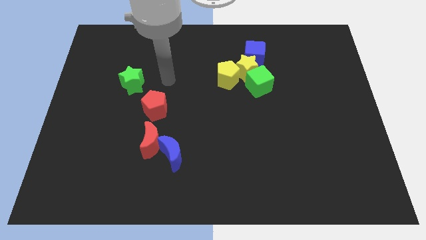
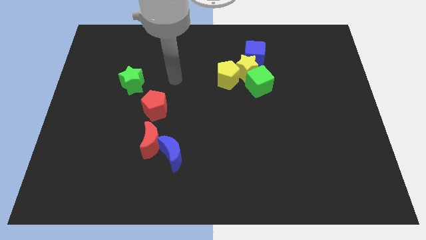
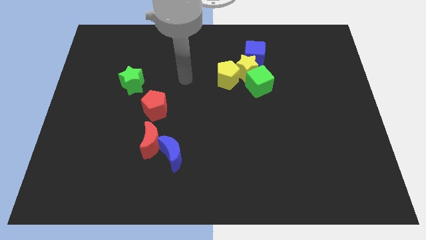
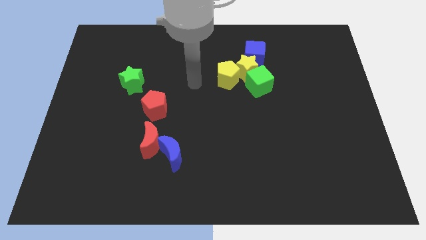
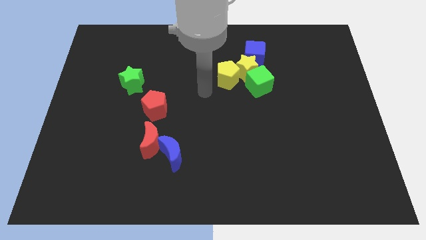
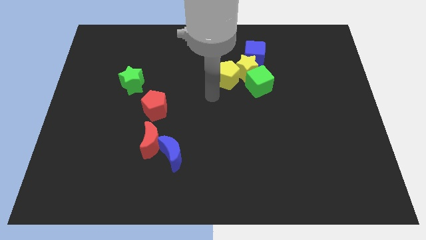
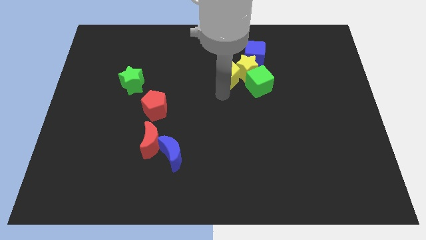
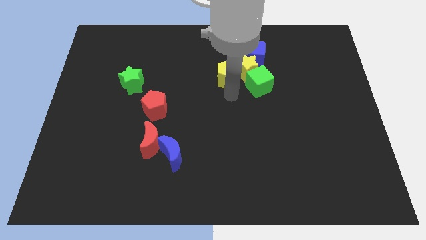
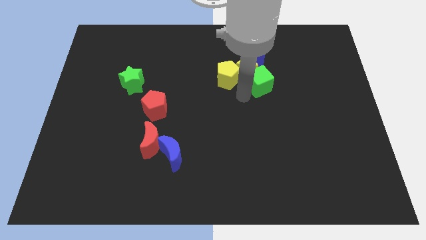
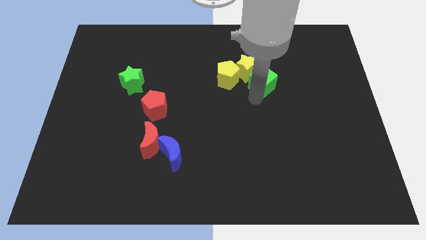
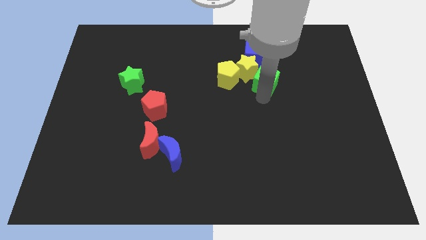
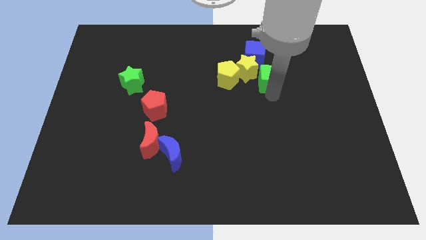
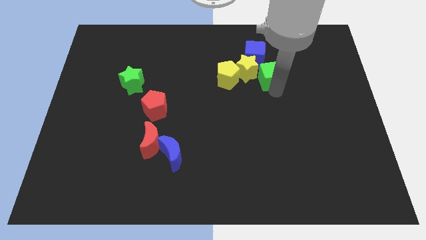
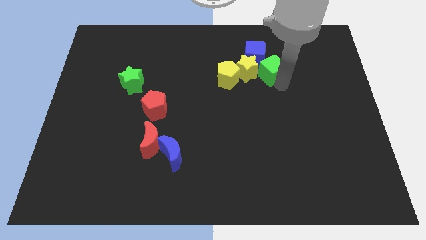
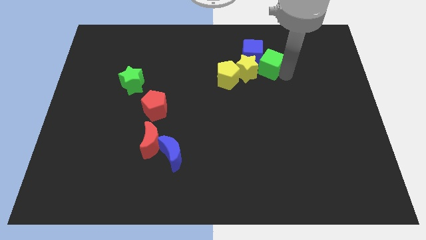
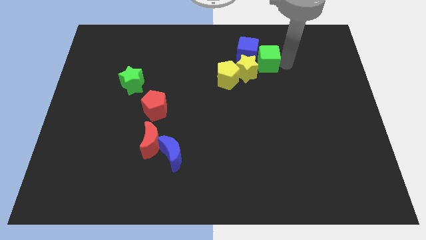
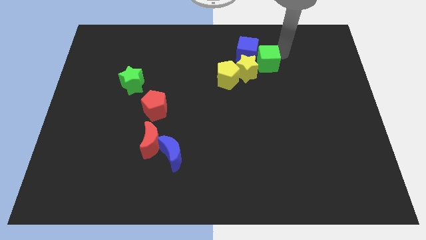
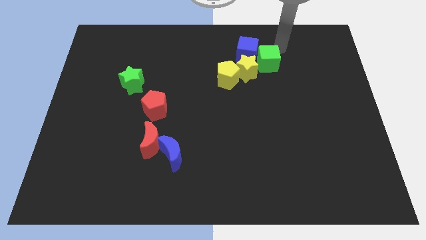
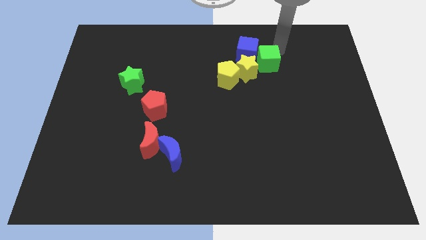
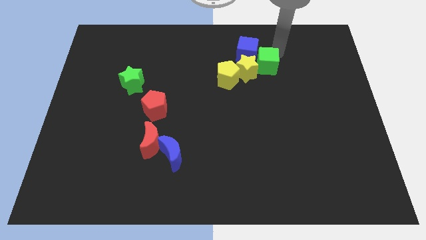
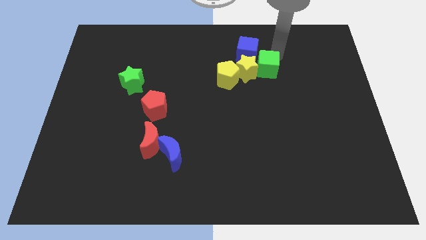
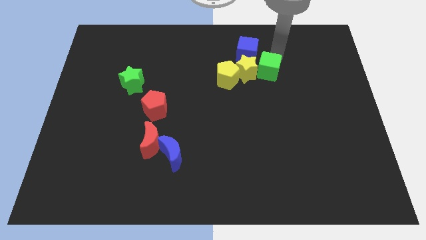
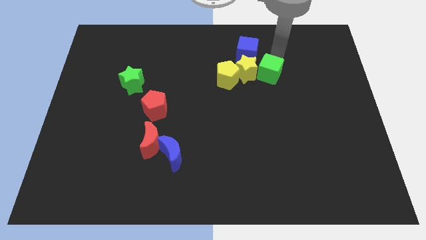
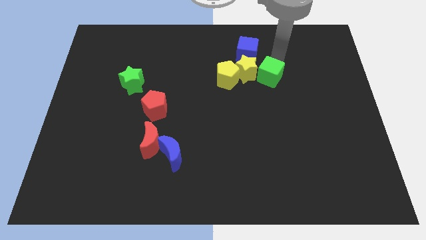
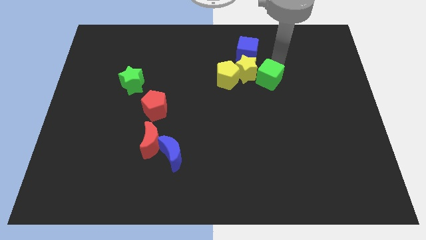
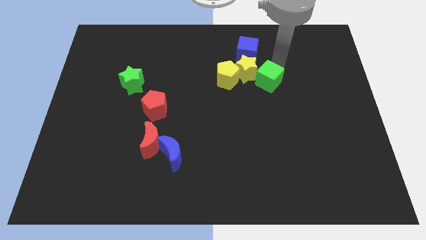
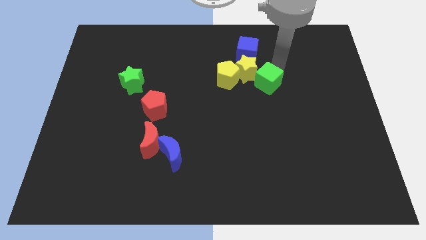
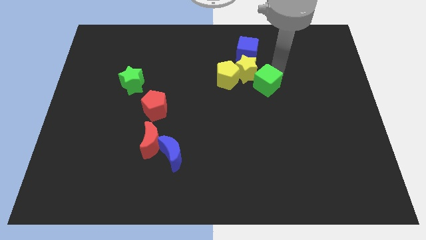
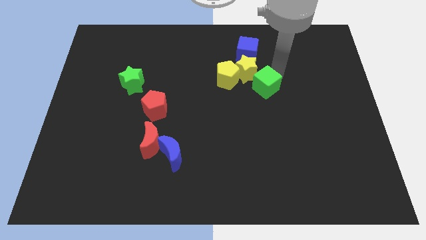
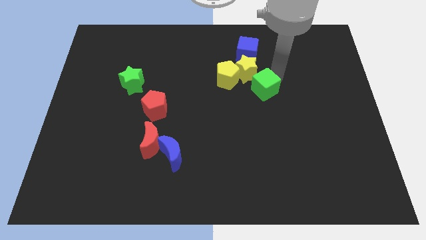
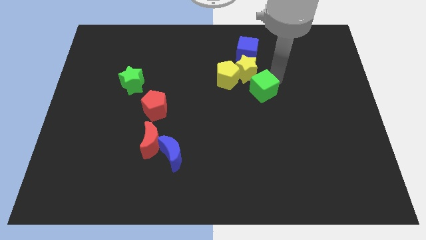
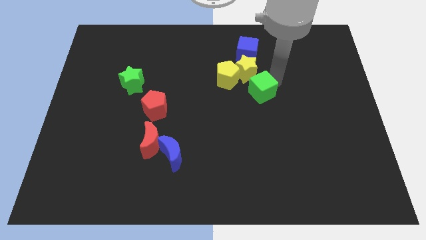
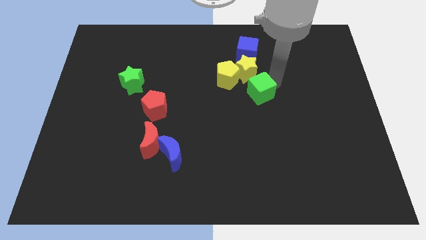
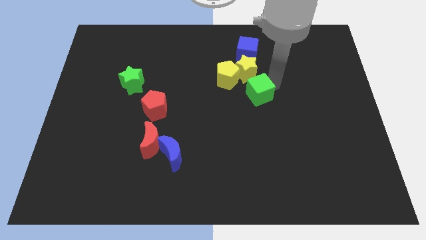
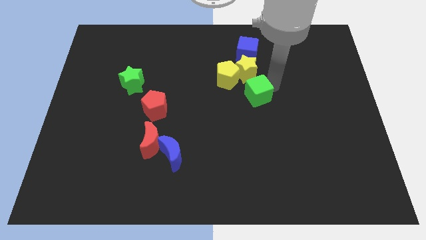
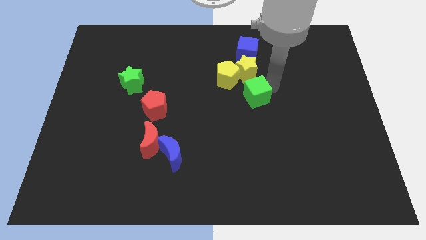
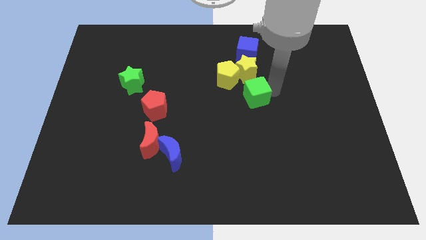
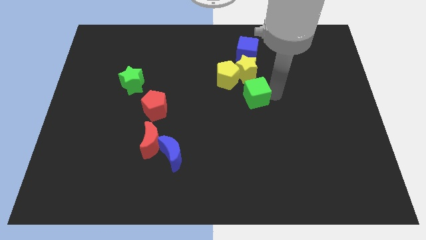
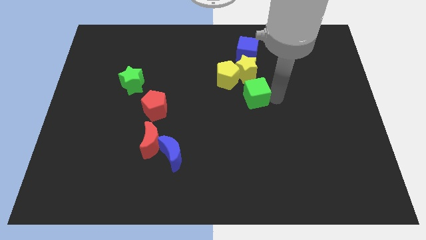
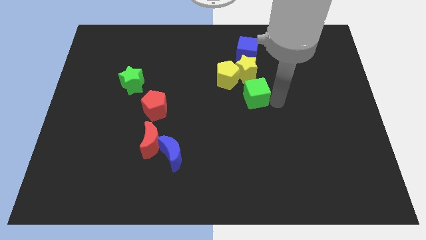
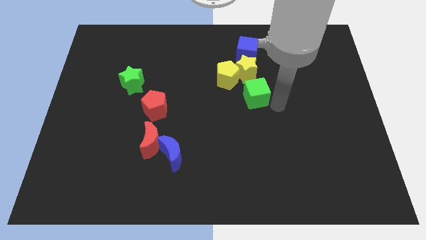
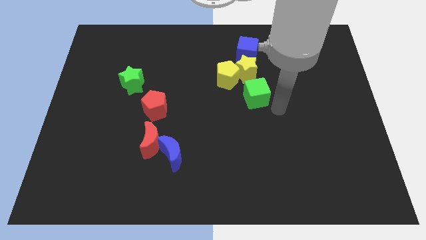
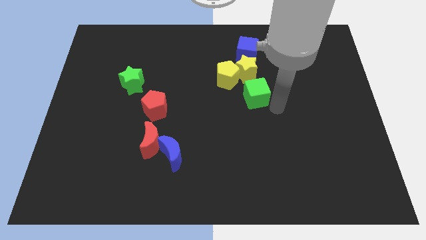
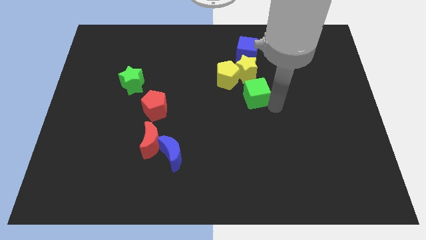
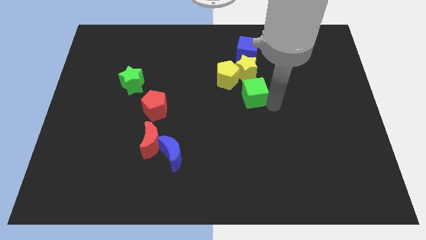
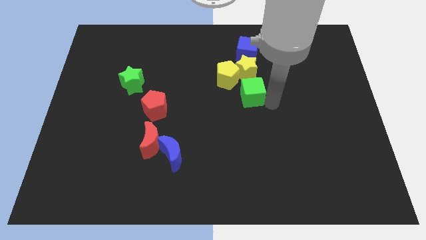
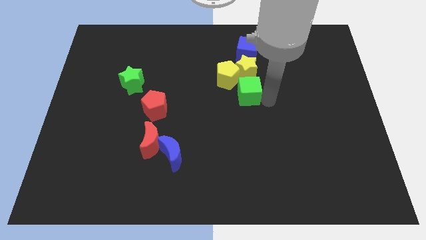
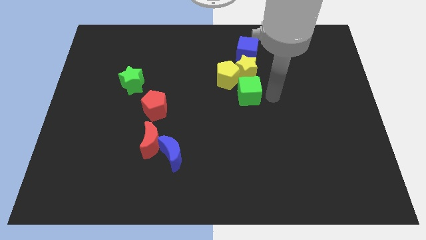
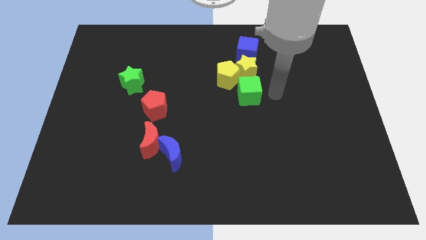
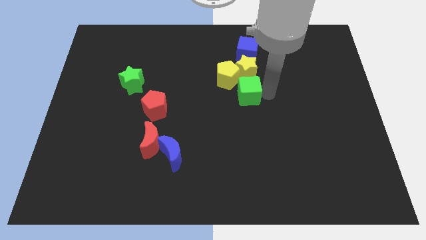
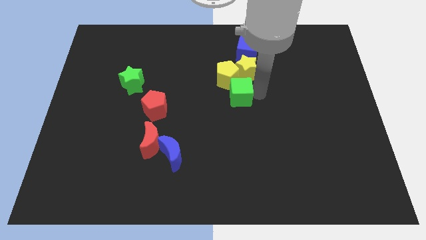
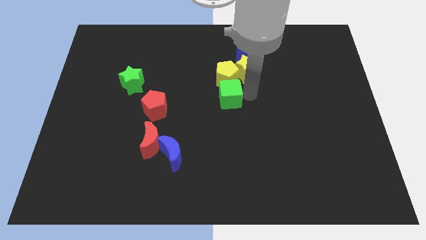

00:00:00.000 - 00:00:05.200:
put the green cube diagonally down and to the left of the yellow pentagon

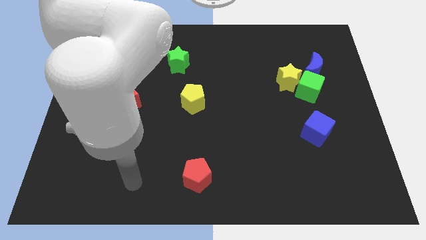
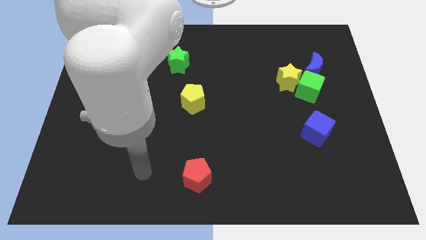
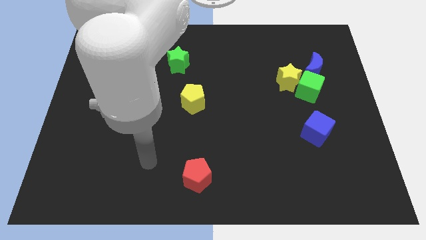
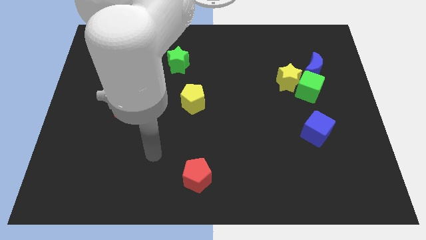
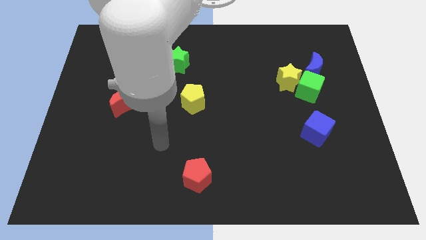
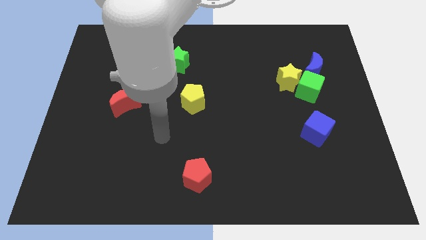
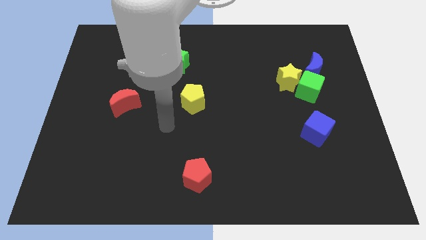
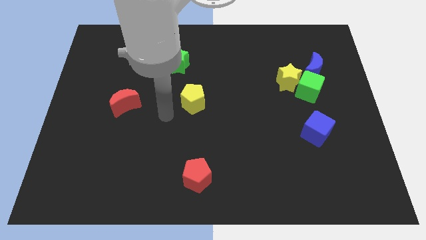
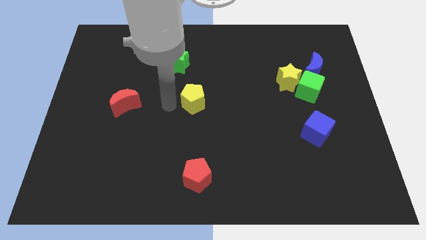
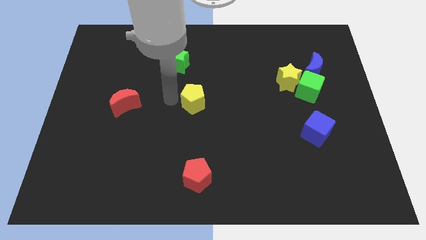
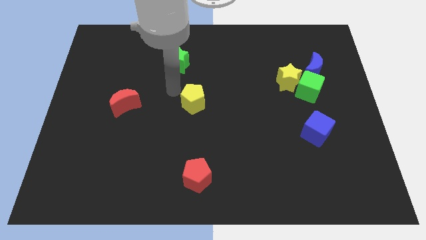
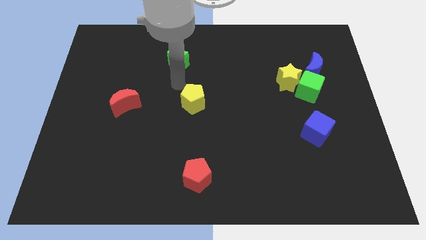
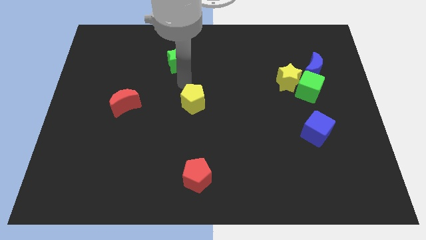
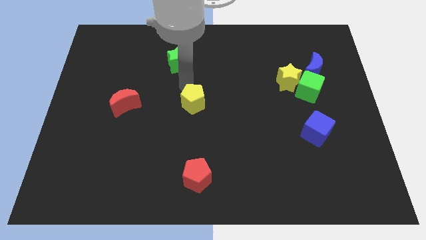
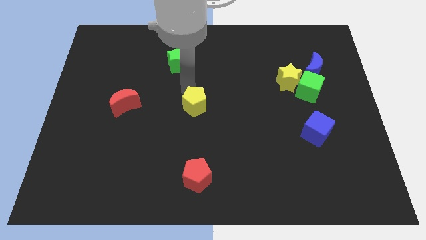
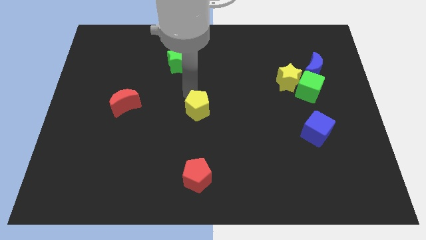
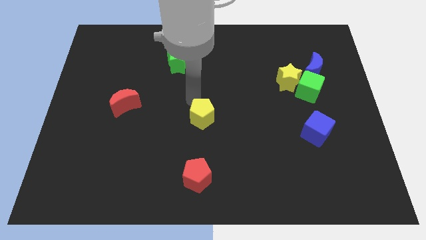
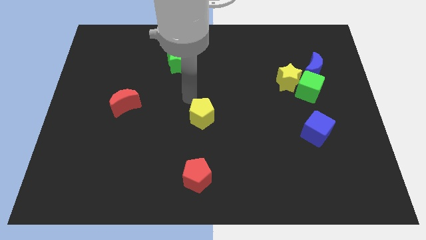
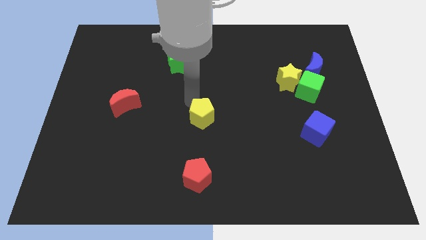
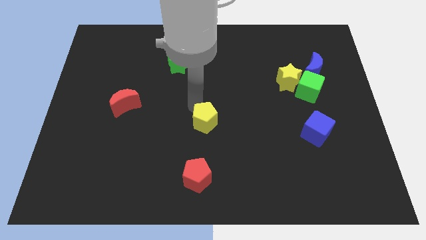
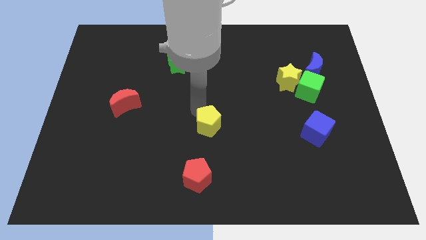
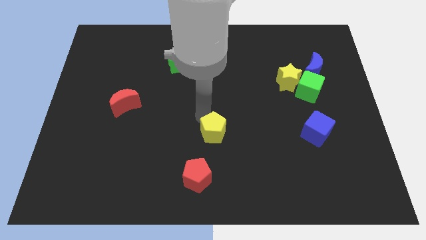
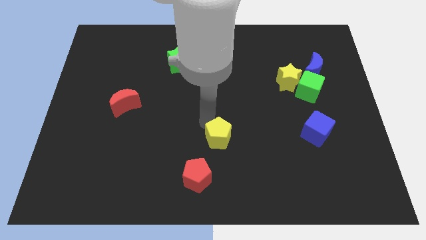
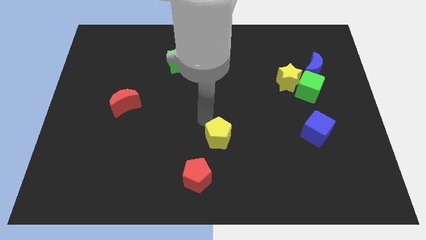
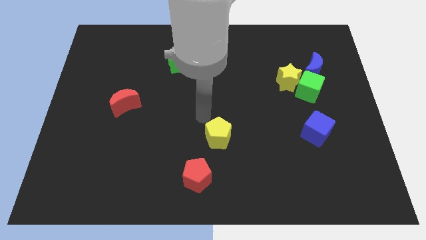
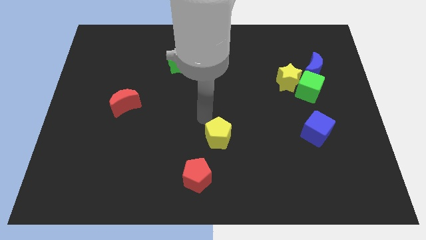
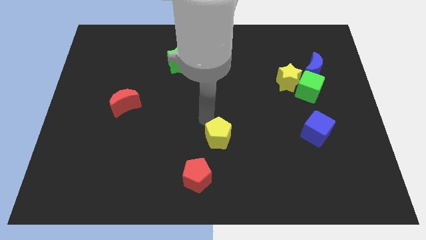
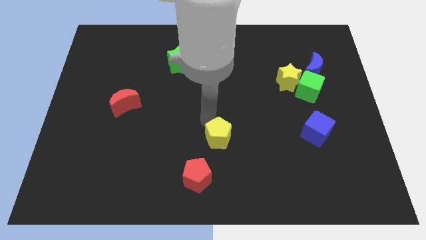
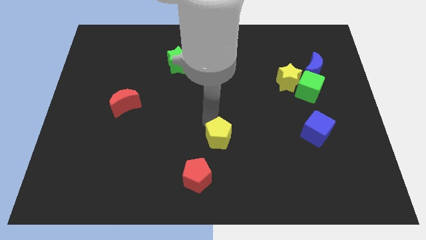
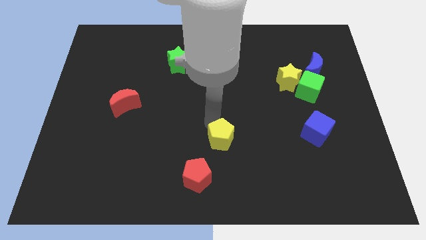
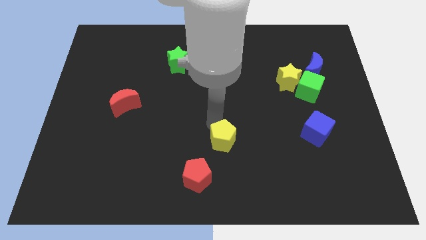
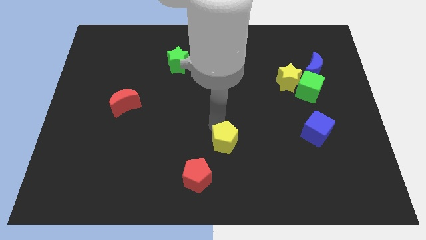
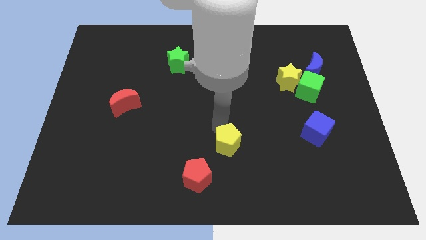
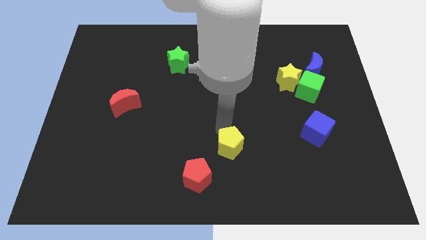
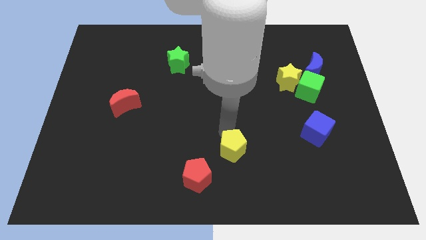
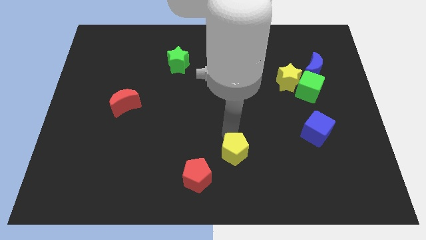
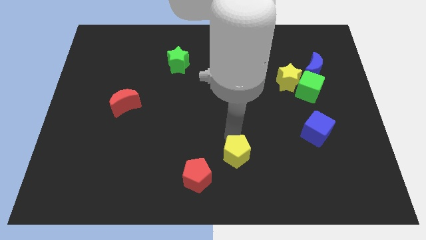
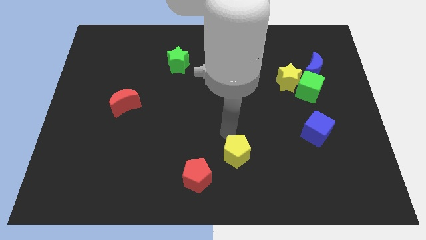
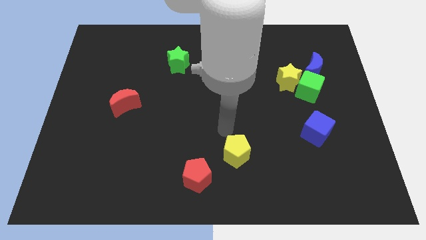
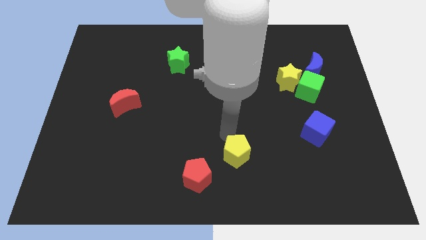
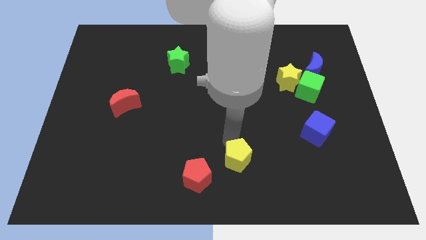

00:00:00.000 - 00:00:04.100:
push the yellow pentagon right of the red pentagon
